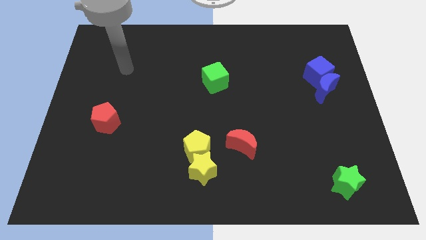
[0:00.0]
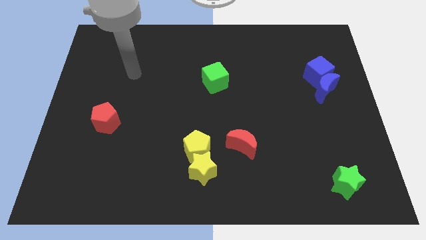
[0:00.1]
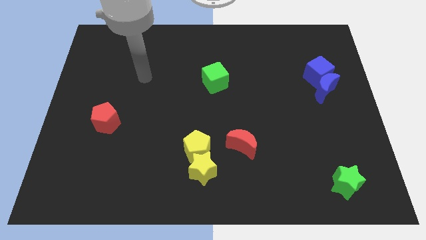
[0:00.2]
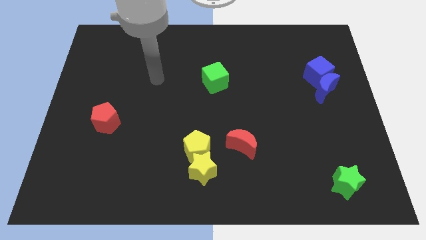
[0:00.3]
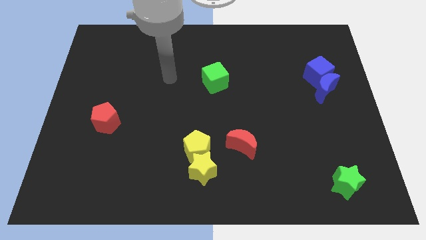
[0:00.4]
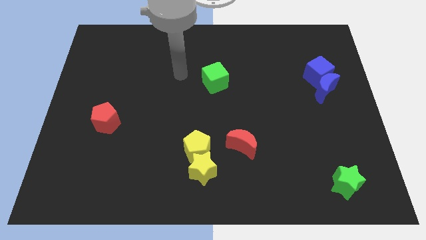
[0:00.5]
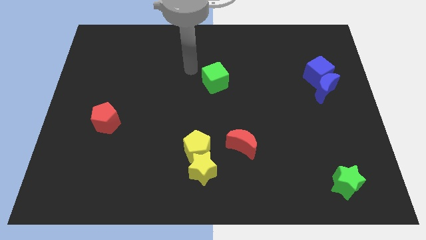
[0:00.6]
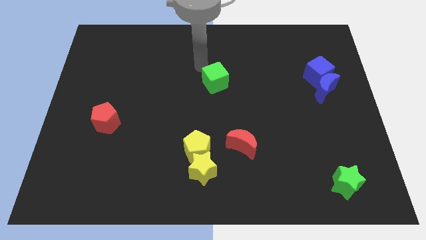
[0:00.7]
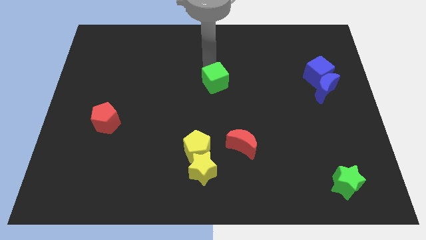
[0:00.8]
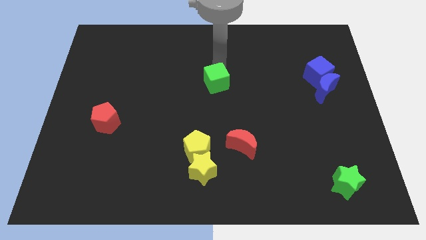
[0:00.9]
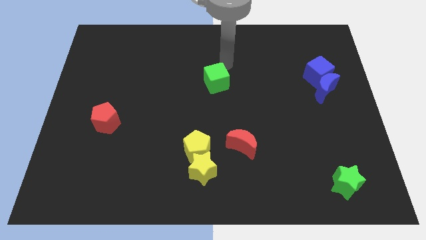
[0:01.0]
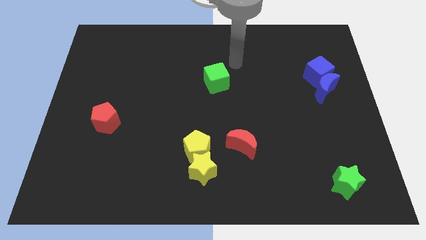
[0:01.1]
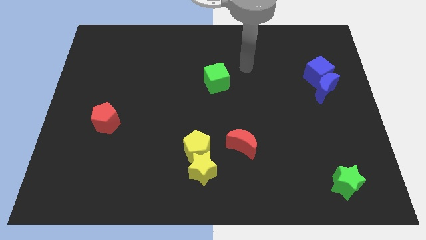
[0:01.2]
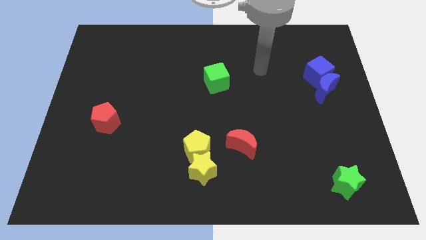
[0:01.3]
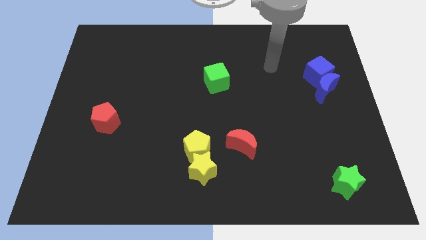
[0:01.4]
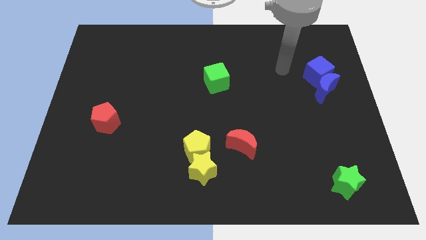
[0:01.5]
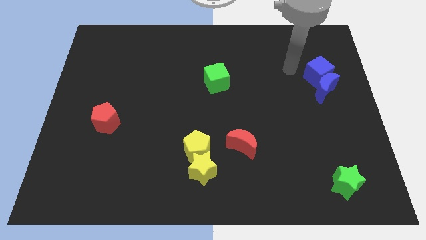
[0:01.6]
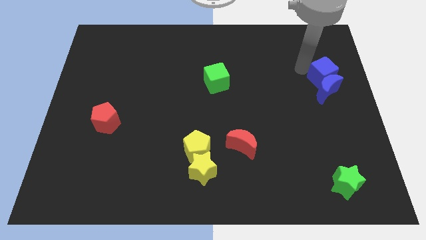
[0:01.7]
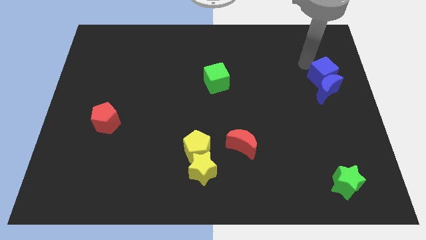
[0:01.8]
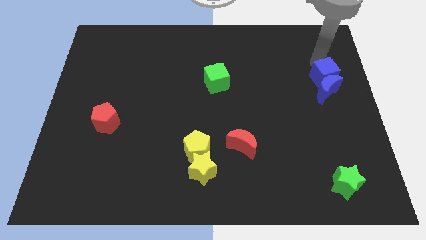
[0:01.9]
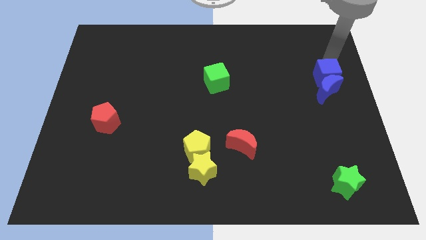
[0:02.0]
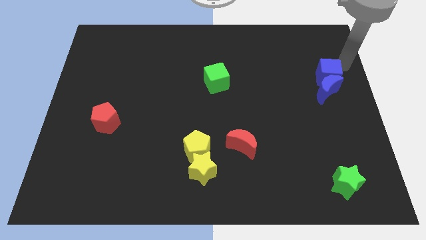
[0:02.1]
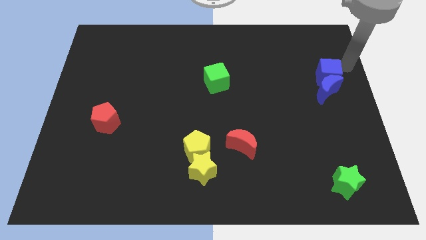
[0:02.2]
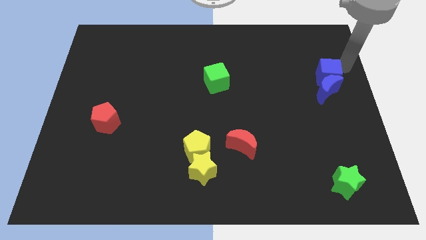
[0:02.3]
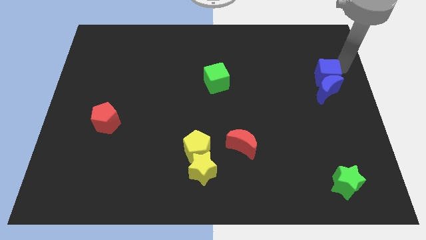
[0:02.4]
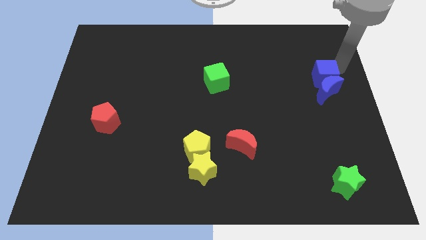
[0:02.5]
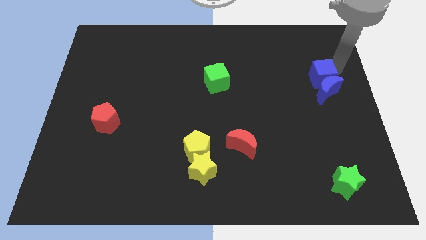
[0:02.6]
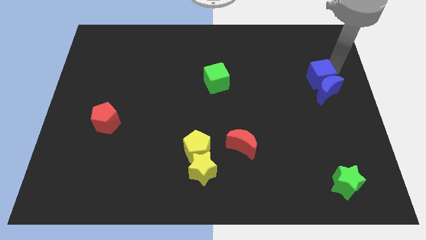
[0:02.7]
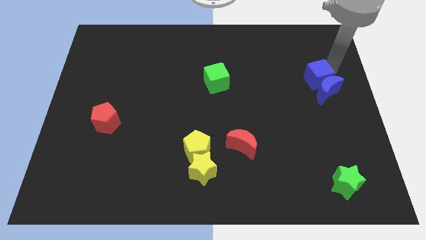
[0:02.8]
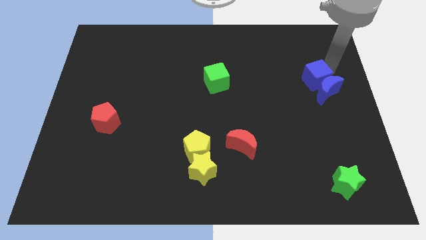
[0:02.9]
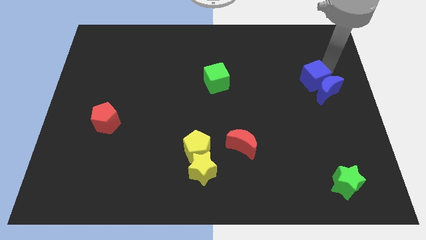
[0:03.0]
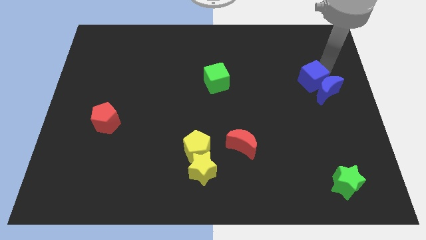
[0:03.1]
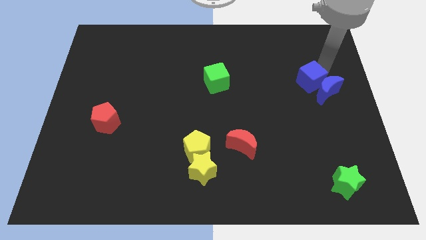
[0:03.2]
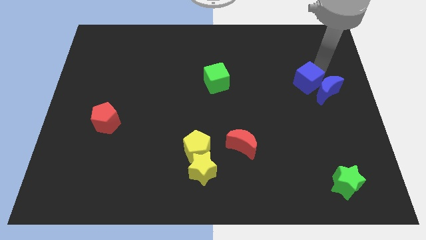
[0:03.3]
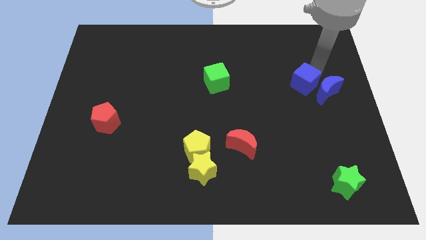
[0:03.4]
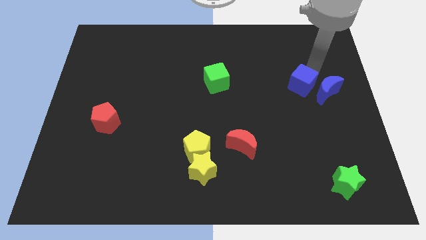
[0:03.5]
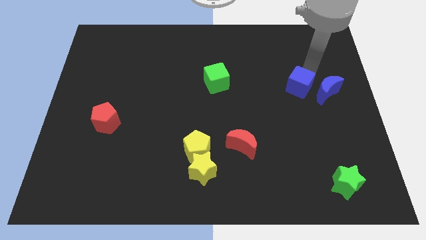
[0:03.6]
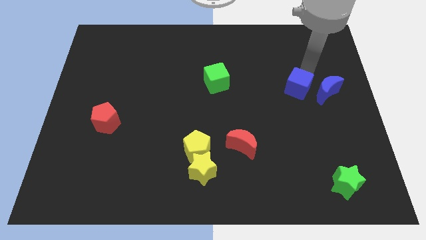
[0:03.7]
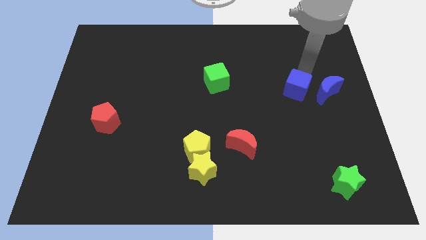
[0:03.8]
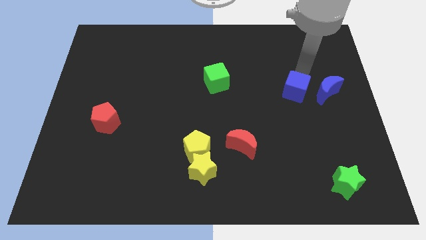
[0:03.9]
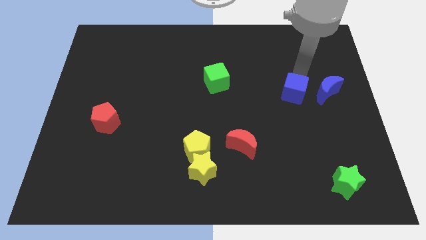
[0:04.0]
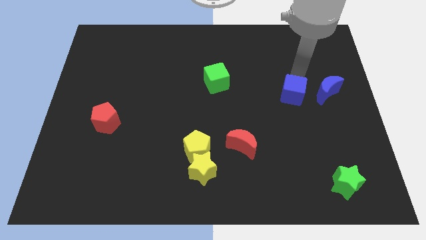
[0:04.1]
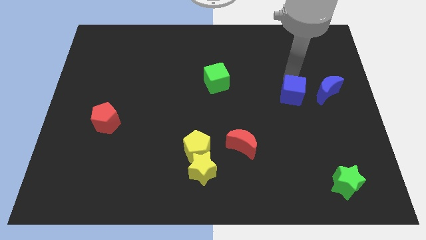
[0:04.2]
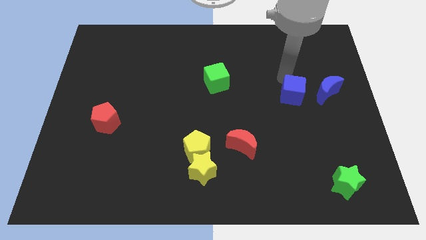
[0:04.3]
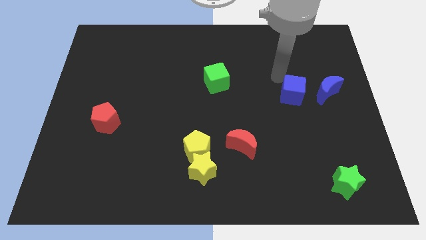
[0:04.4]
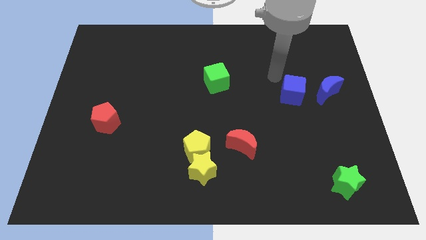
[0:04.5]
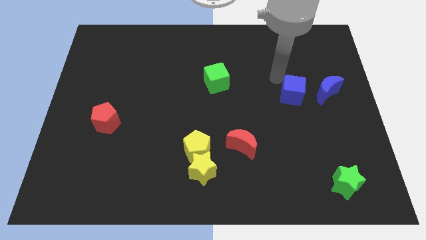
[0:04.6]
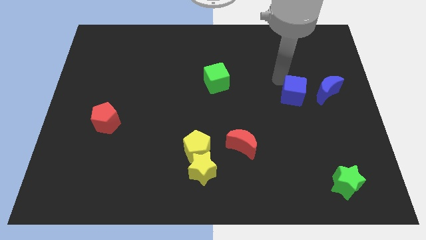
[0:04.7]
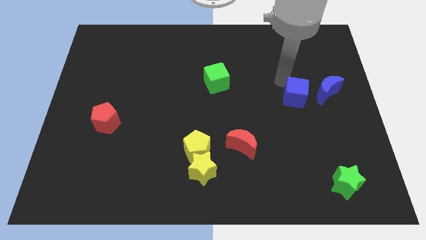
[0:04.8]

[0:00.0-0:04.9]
push the blue cube to the bottom left of the blue moon

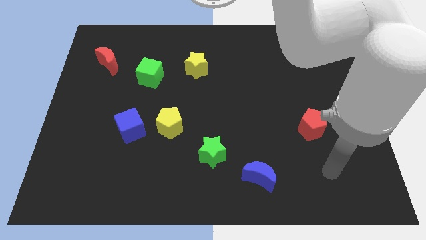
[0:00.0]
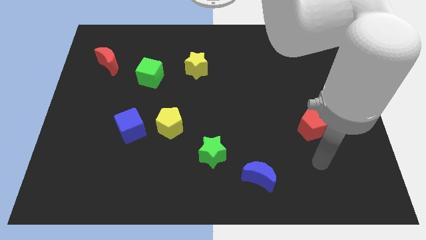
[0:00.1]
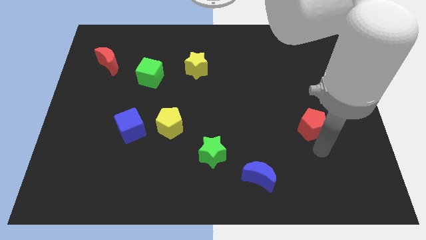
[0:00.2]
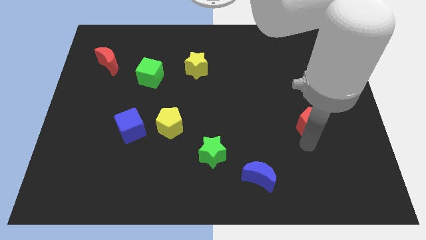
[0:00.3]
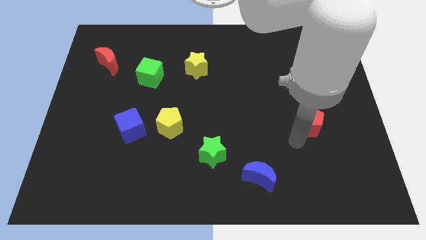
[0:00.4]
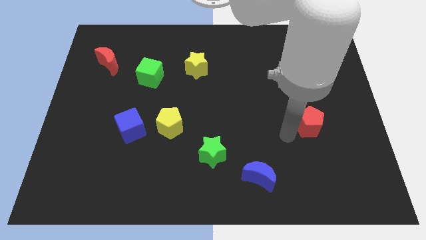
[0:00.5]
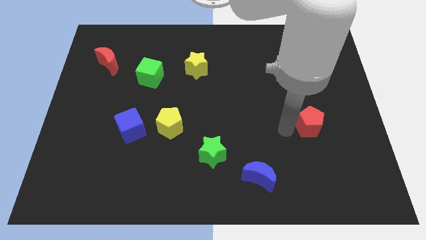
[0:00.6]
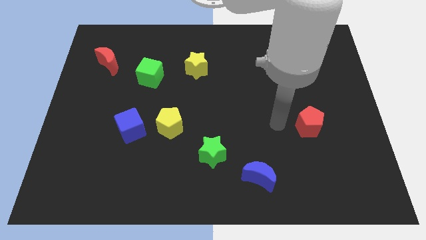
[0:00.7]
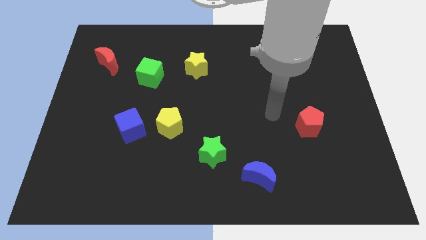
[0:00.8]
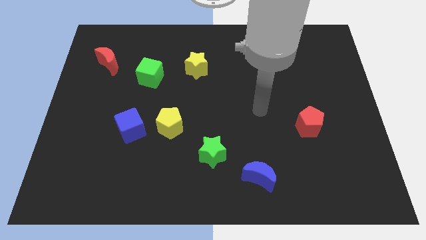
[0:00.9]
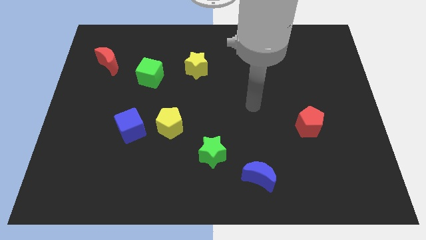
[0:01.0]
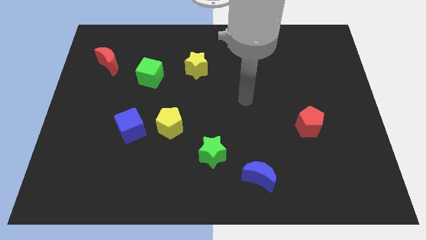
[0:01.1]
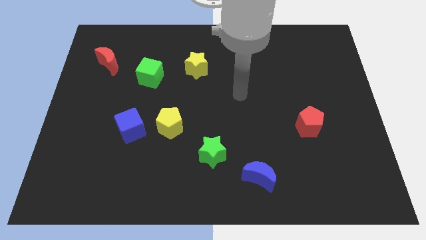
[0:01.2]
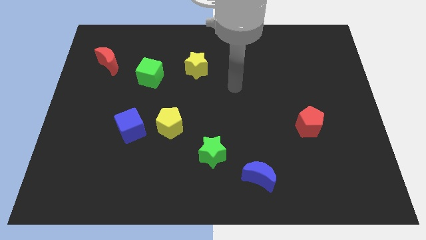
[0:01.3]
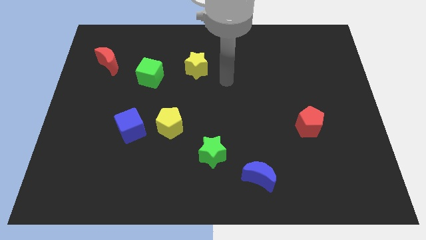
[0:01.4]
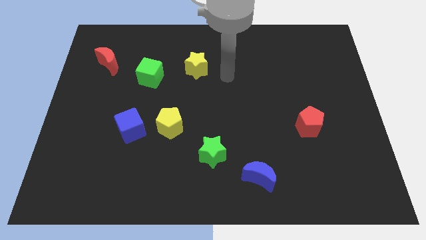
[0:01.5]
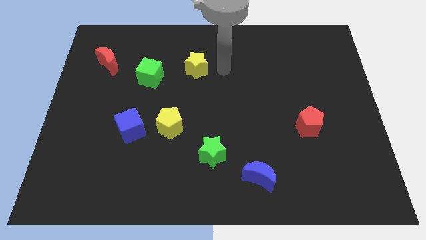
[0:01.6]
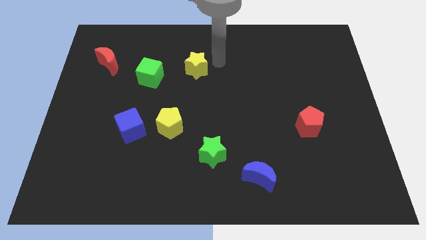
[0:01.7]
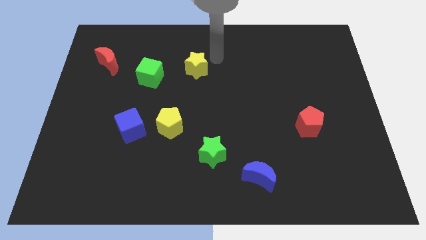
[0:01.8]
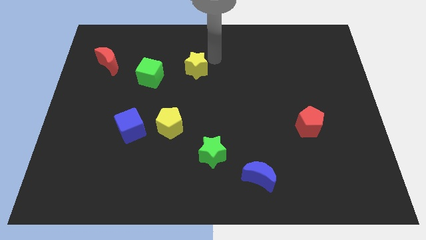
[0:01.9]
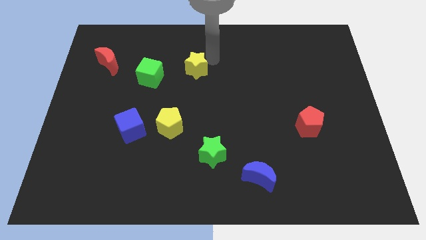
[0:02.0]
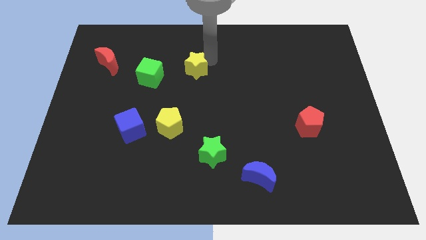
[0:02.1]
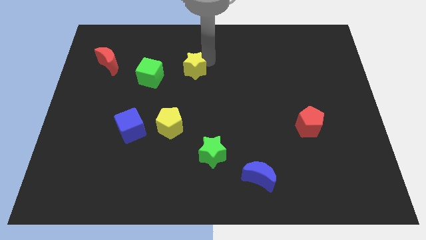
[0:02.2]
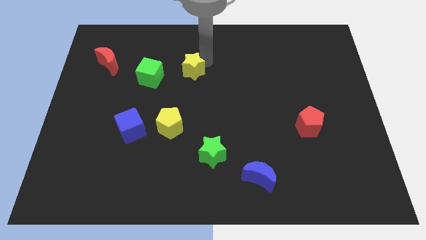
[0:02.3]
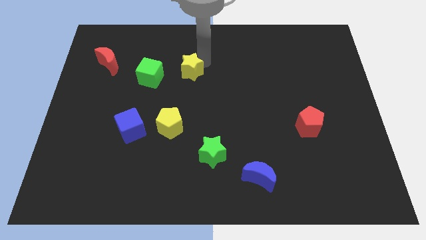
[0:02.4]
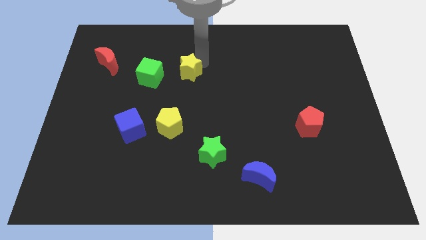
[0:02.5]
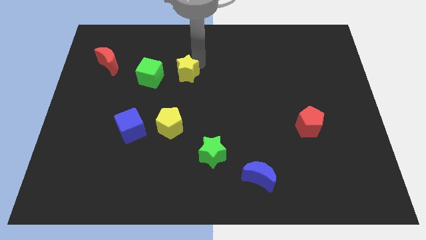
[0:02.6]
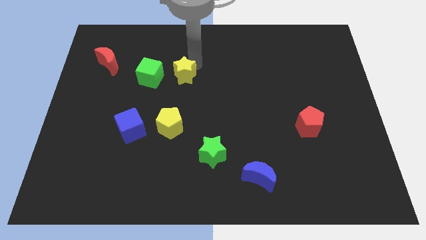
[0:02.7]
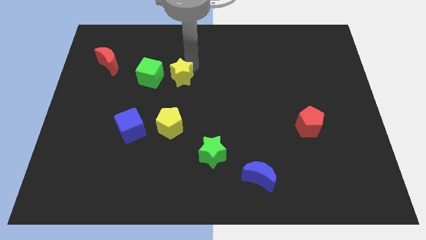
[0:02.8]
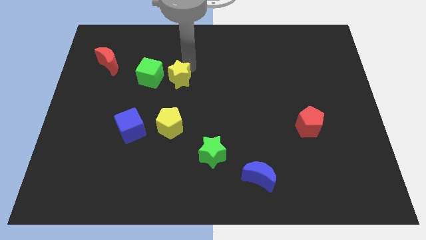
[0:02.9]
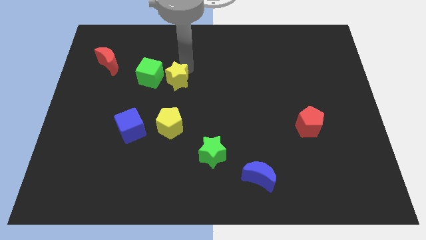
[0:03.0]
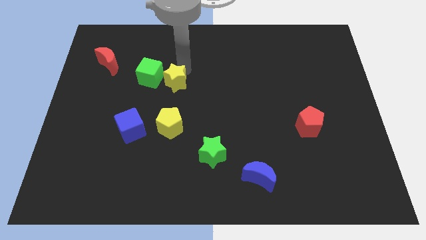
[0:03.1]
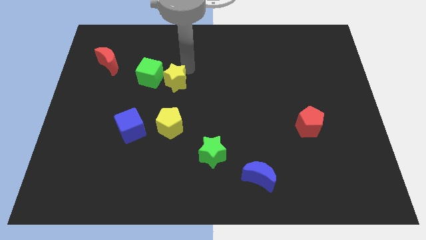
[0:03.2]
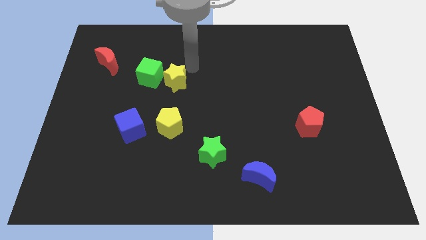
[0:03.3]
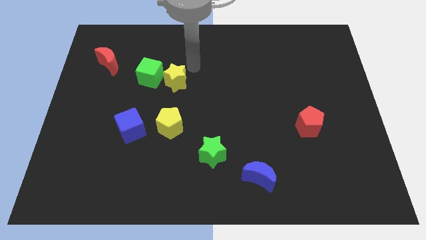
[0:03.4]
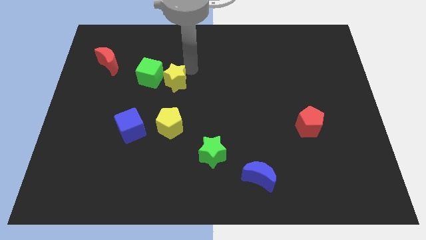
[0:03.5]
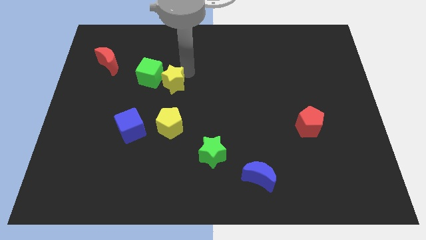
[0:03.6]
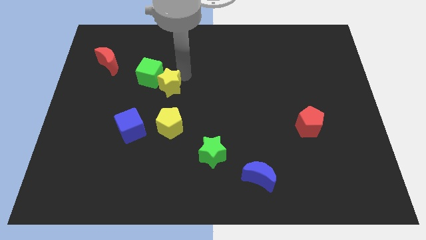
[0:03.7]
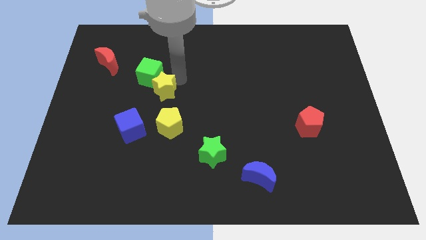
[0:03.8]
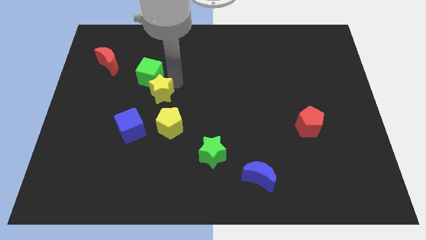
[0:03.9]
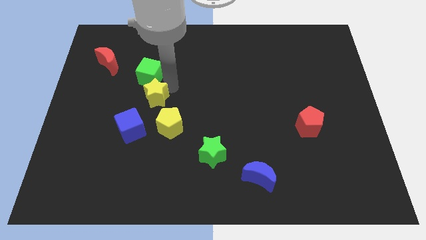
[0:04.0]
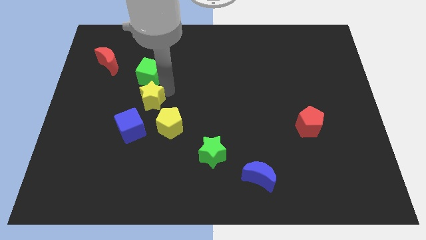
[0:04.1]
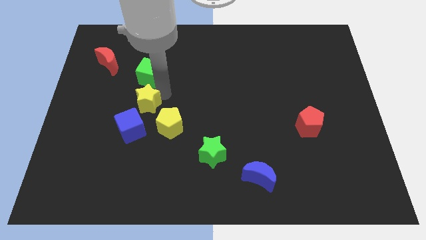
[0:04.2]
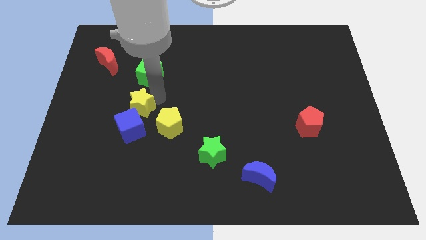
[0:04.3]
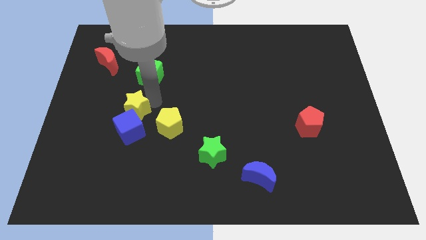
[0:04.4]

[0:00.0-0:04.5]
slide the yellow star to the left of the yellow pentagon
